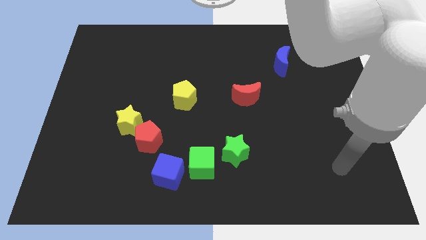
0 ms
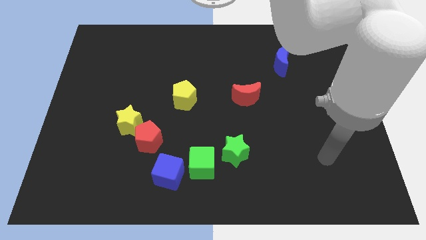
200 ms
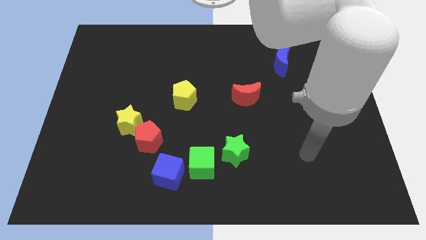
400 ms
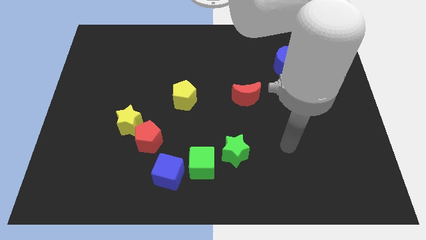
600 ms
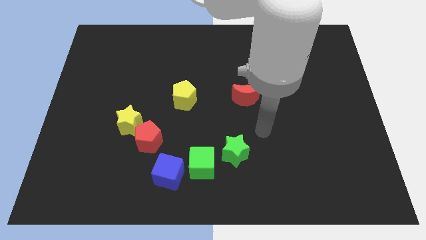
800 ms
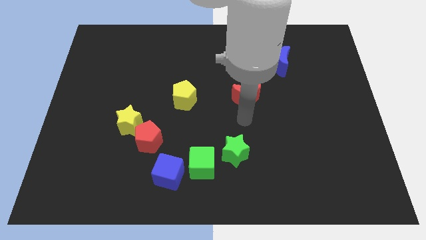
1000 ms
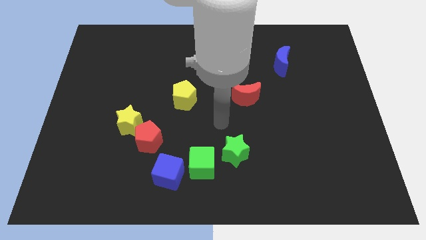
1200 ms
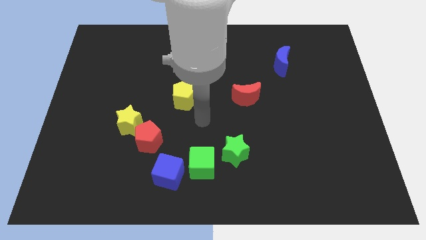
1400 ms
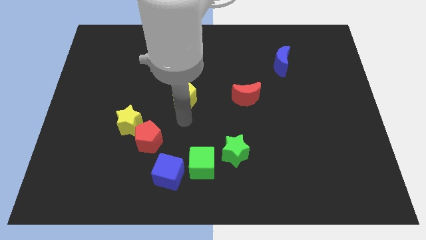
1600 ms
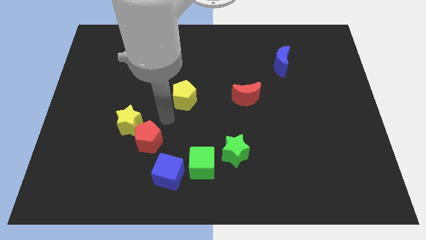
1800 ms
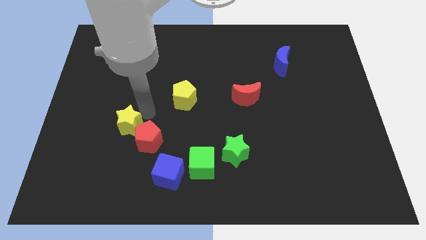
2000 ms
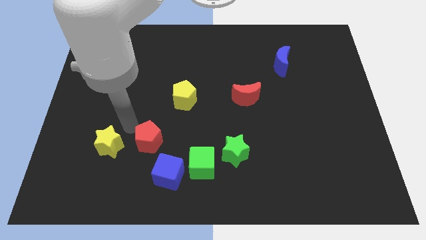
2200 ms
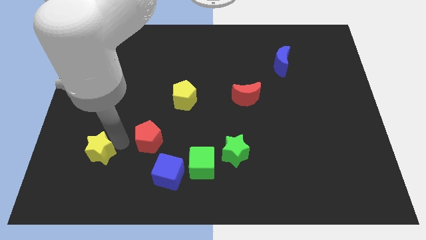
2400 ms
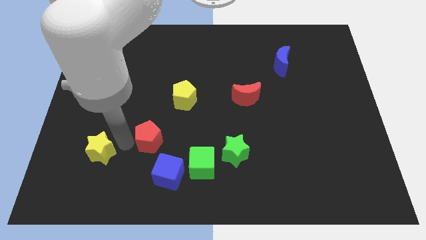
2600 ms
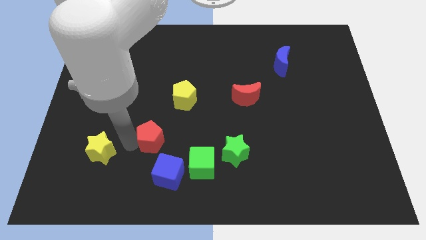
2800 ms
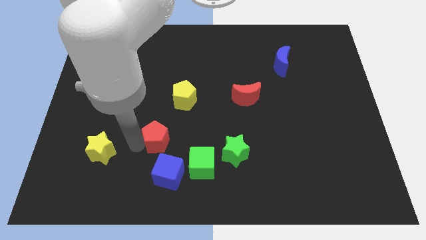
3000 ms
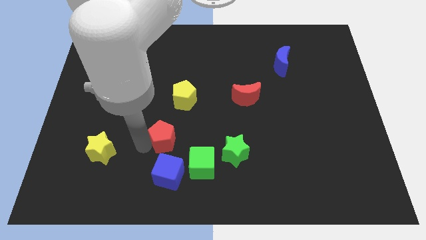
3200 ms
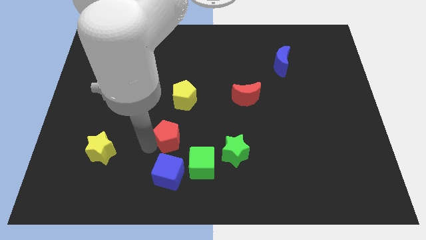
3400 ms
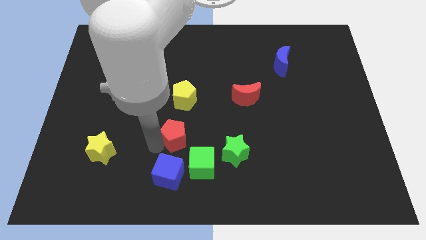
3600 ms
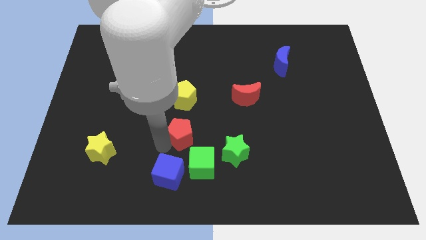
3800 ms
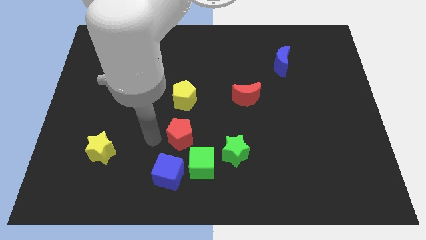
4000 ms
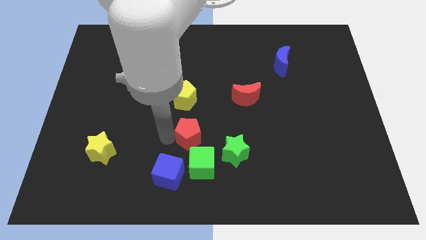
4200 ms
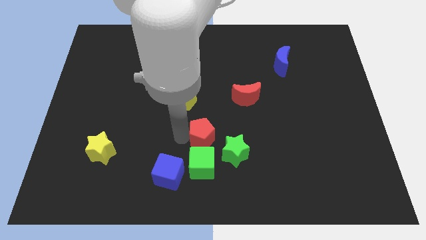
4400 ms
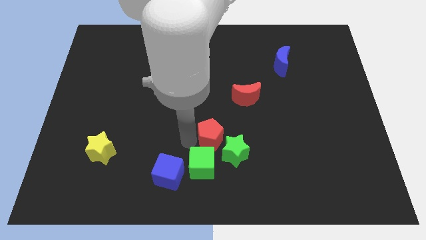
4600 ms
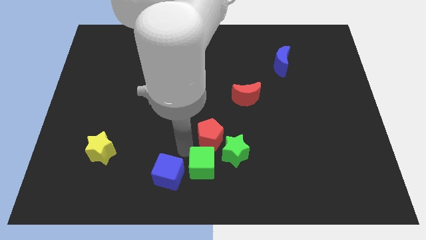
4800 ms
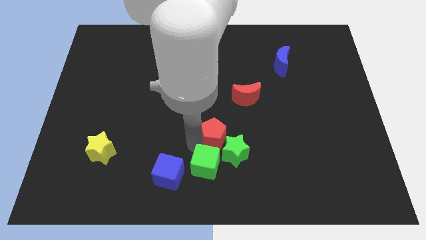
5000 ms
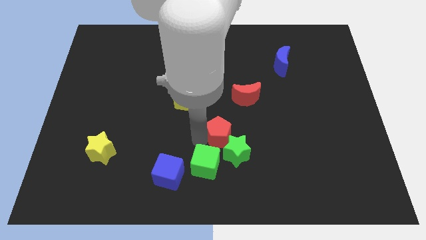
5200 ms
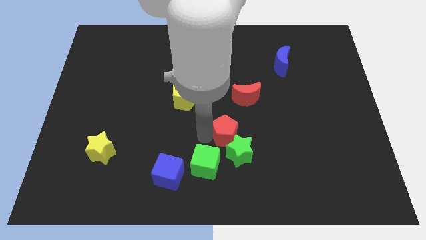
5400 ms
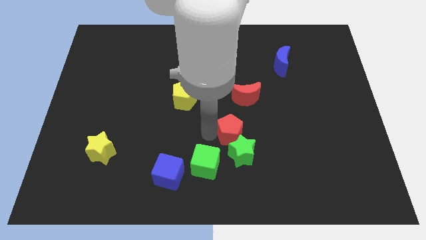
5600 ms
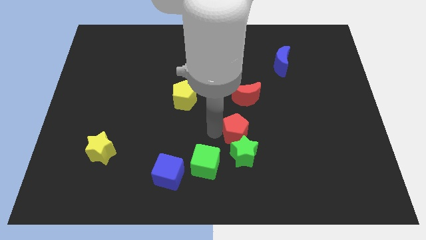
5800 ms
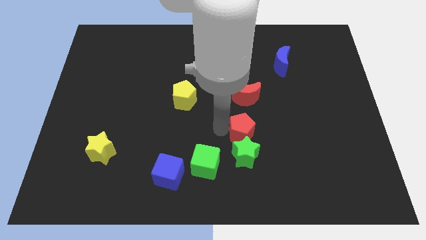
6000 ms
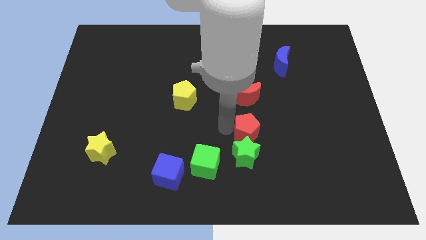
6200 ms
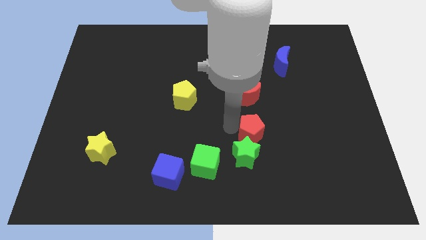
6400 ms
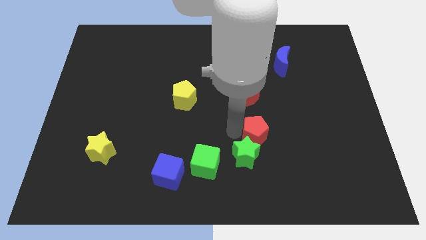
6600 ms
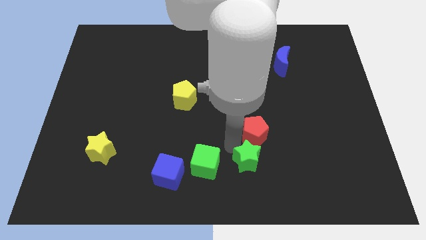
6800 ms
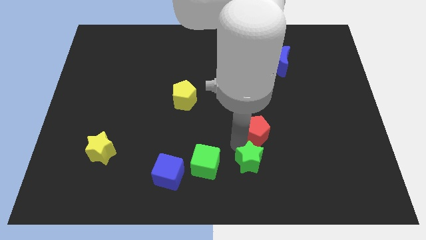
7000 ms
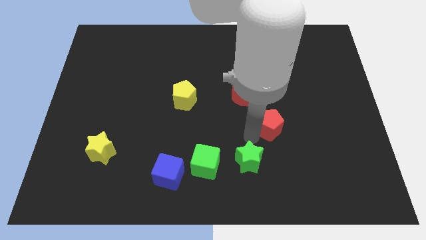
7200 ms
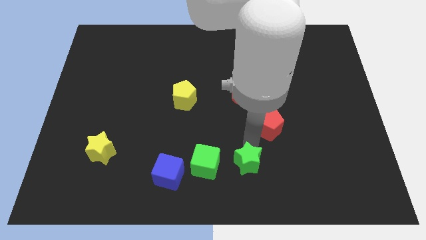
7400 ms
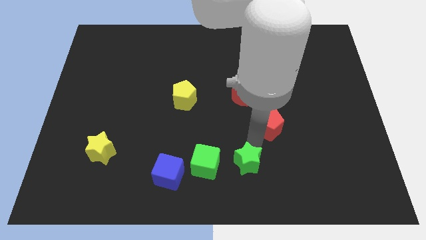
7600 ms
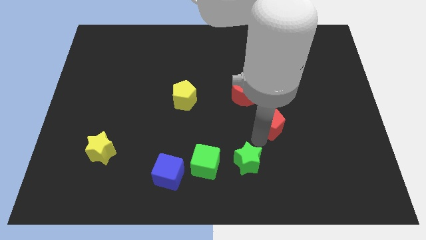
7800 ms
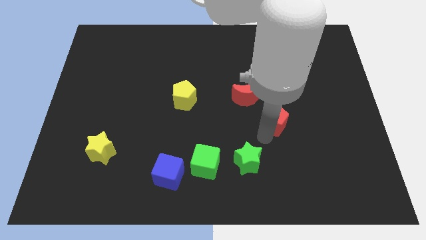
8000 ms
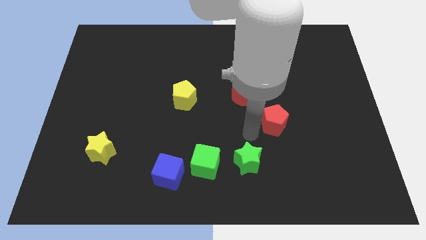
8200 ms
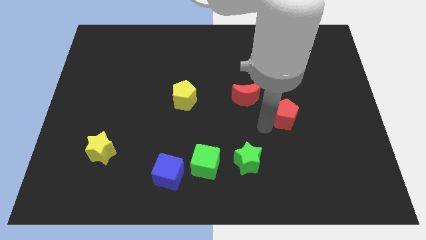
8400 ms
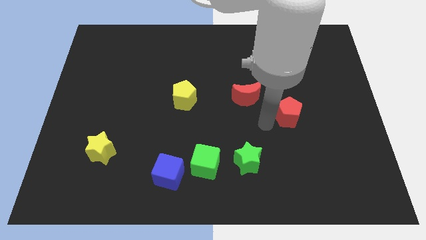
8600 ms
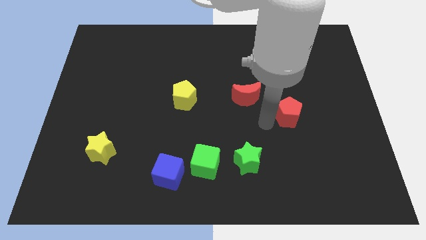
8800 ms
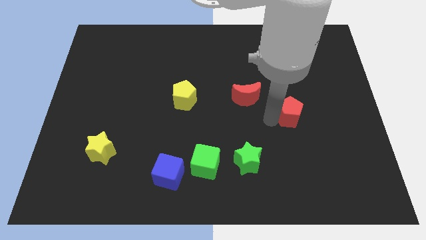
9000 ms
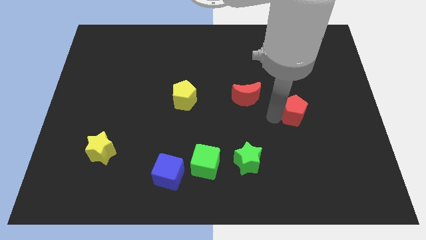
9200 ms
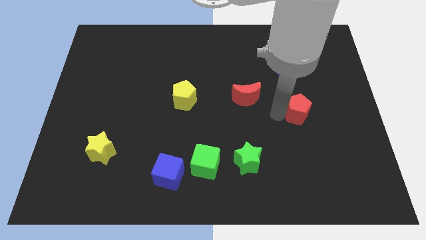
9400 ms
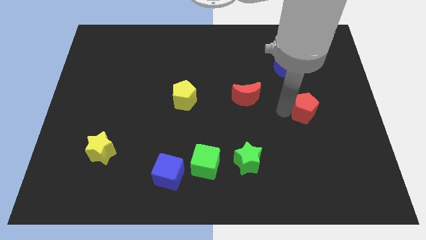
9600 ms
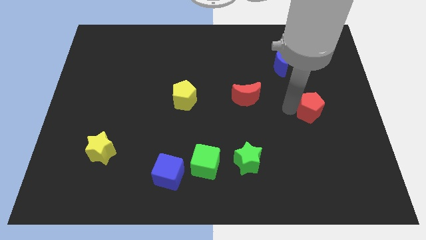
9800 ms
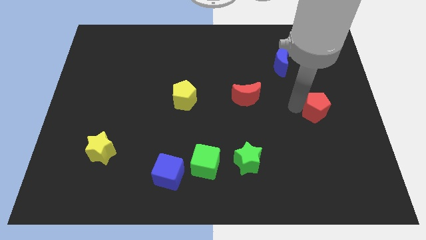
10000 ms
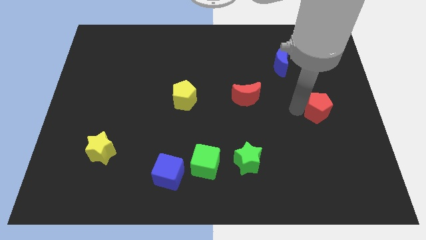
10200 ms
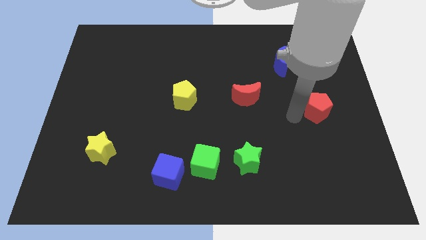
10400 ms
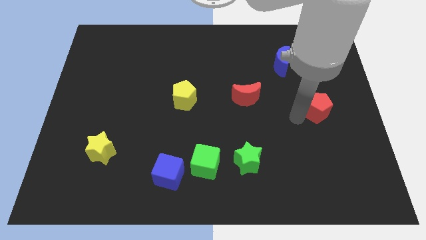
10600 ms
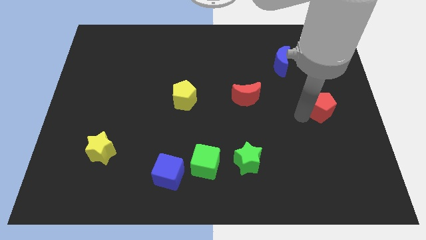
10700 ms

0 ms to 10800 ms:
move the red pentagon to the right side of the board

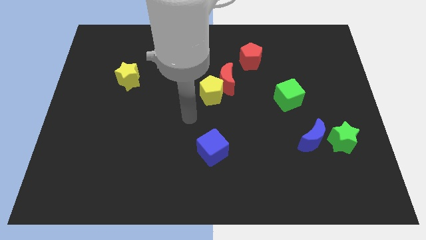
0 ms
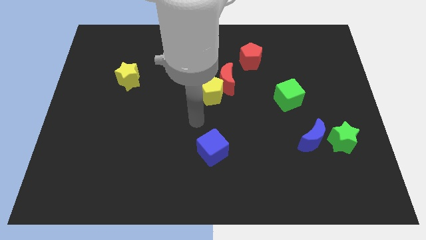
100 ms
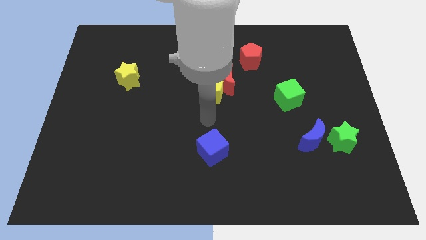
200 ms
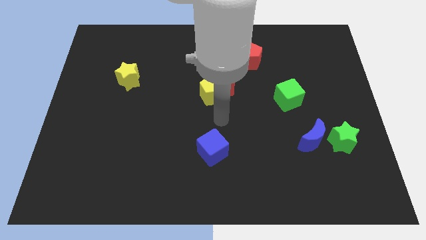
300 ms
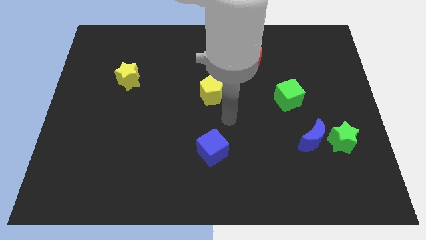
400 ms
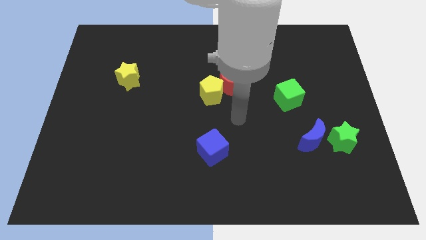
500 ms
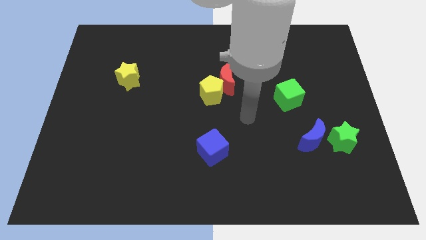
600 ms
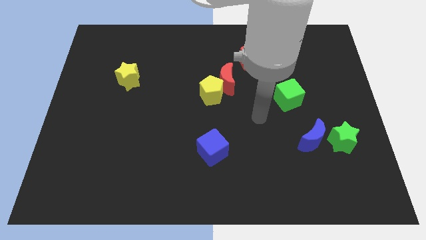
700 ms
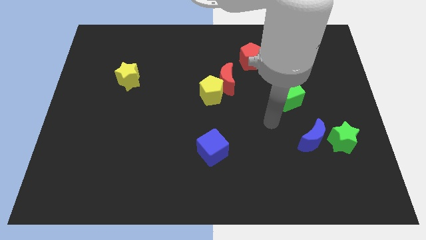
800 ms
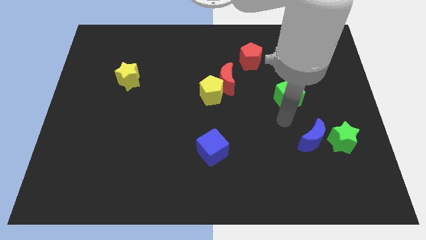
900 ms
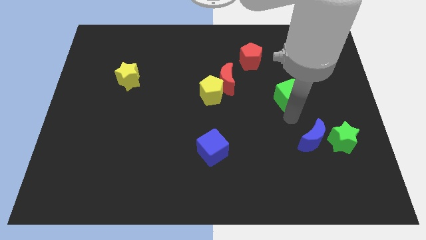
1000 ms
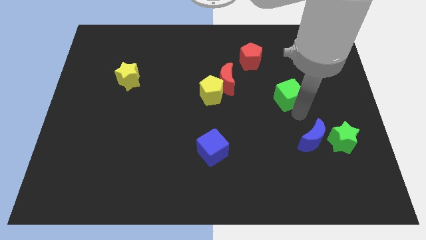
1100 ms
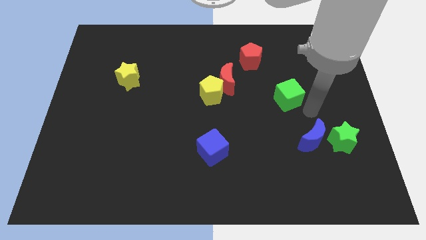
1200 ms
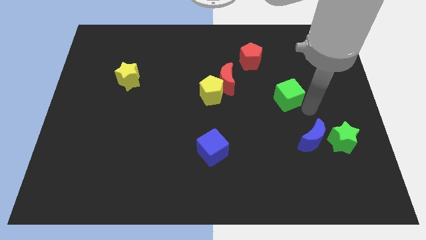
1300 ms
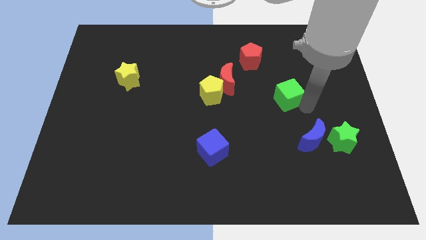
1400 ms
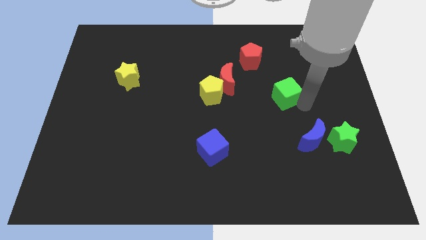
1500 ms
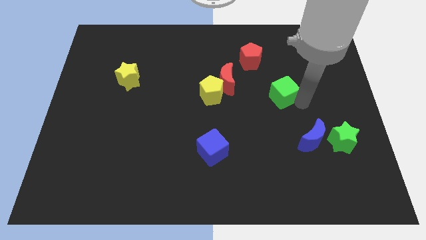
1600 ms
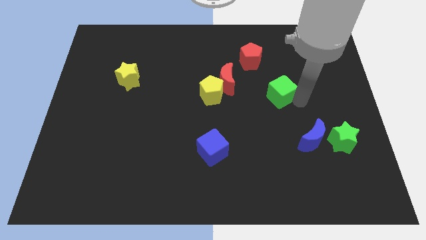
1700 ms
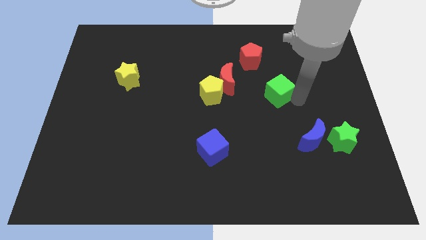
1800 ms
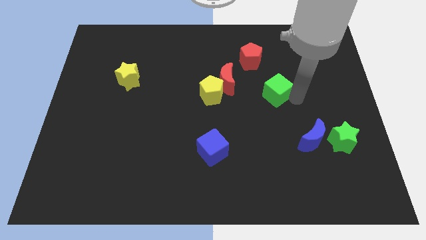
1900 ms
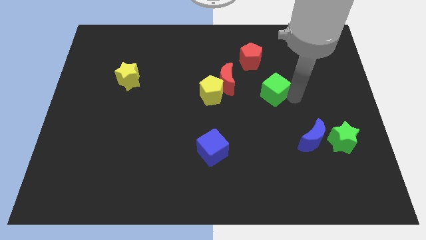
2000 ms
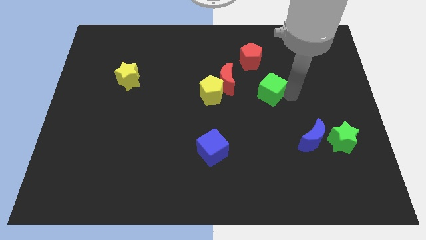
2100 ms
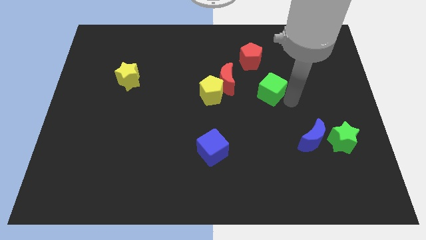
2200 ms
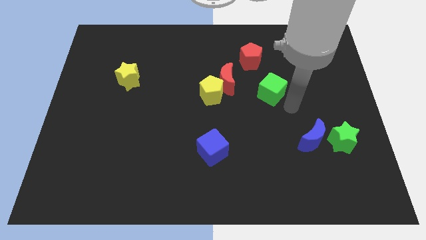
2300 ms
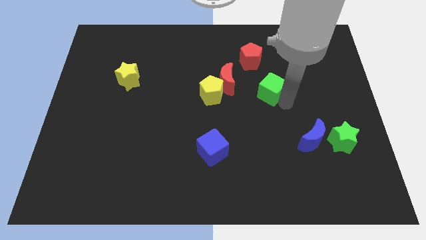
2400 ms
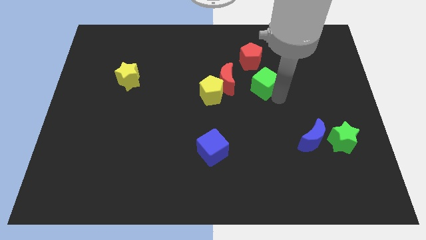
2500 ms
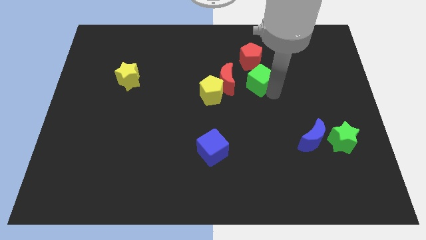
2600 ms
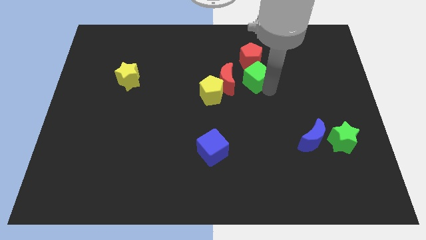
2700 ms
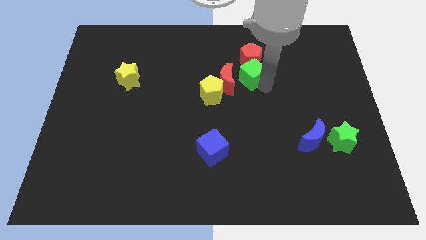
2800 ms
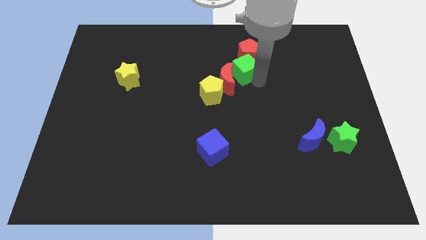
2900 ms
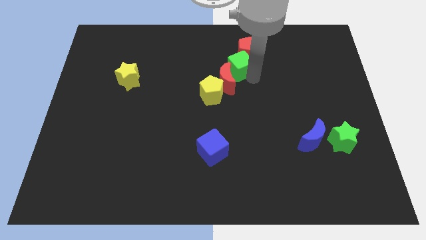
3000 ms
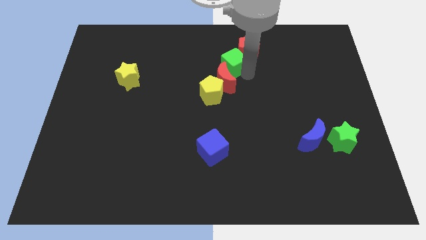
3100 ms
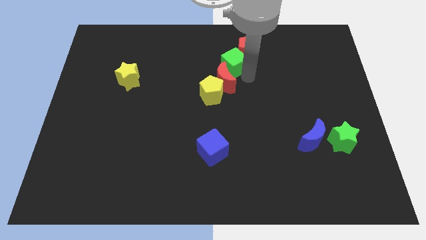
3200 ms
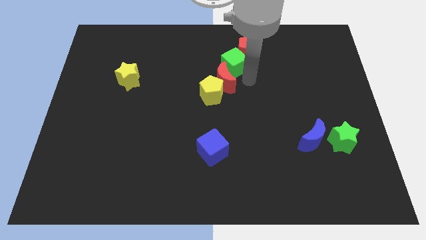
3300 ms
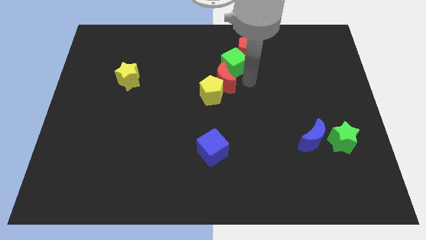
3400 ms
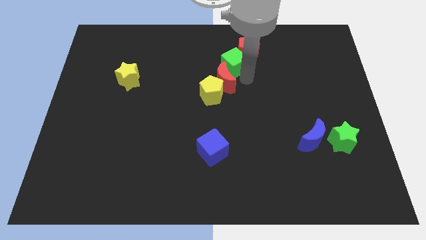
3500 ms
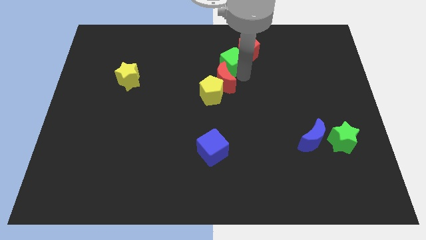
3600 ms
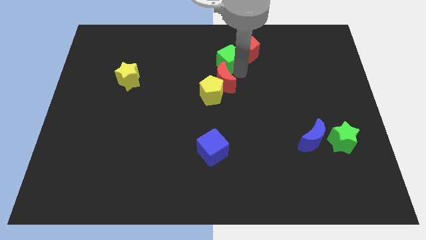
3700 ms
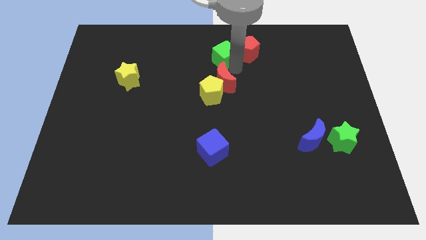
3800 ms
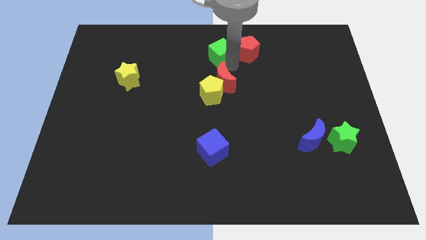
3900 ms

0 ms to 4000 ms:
put the green cube to the top
